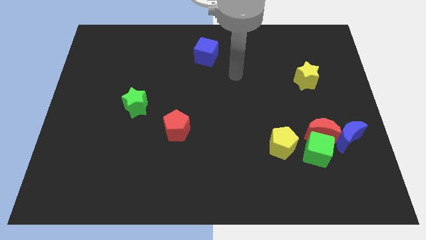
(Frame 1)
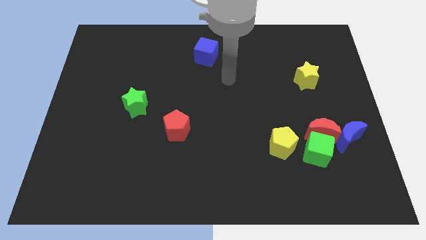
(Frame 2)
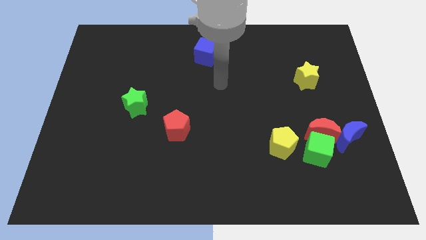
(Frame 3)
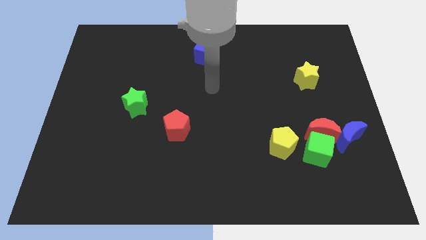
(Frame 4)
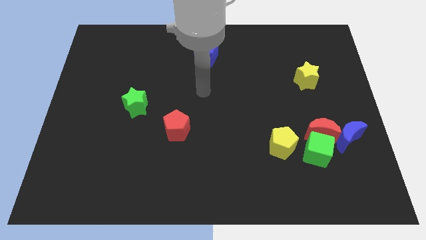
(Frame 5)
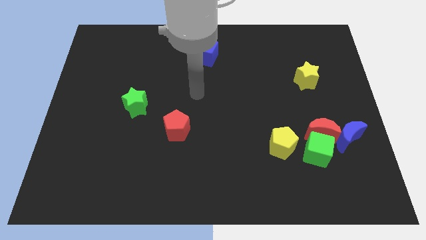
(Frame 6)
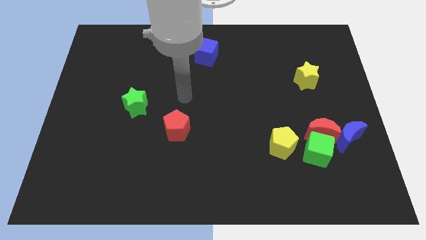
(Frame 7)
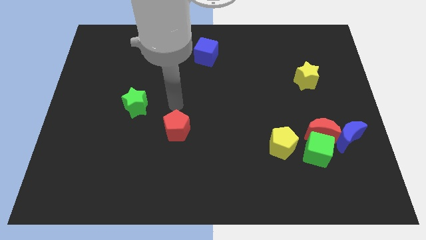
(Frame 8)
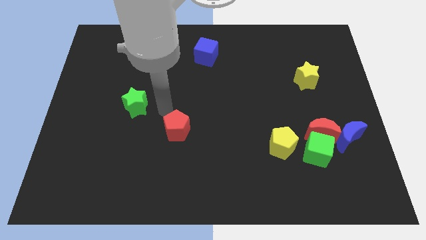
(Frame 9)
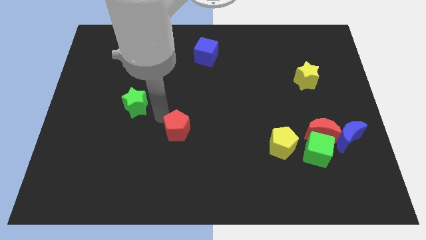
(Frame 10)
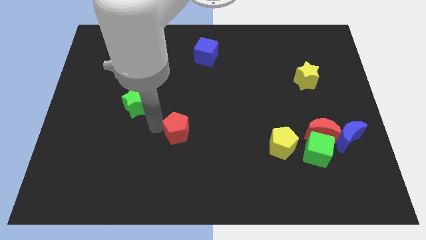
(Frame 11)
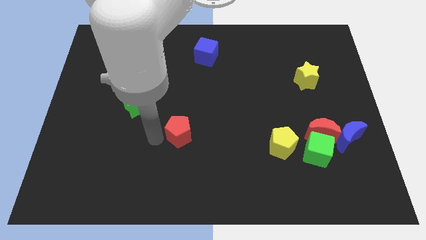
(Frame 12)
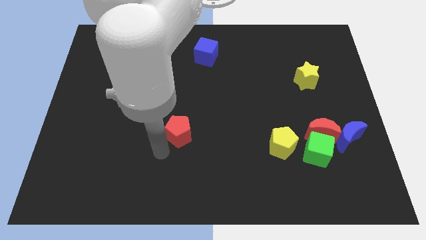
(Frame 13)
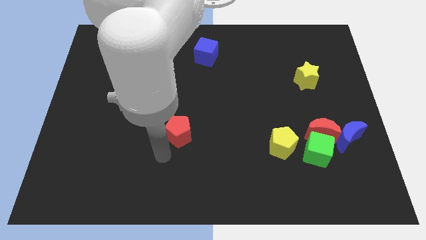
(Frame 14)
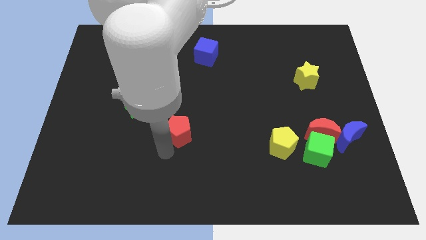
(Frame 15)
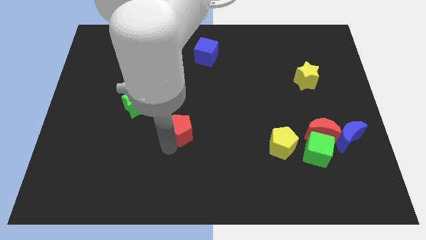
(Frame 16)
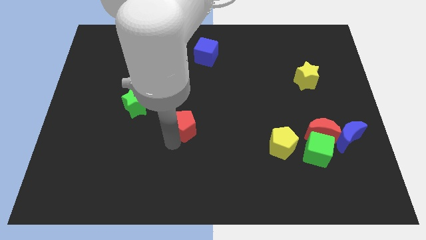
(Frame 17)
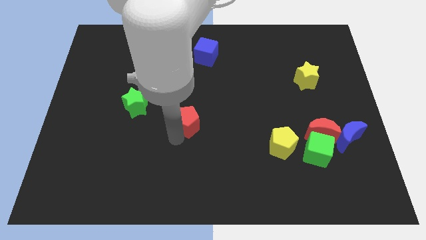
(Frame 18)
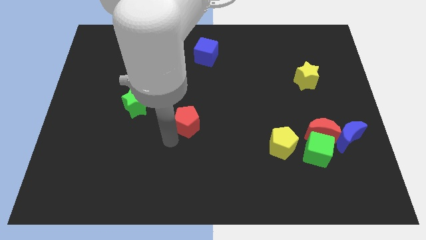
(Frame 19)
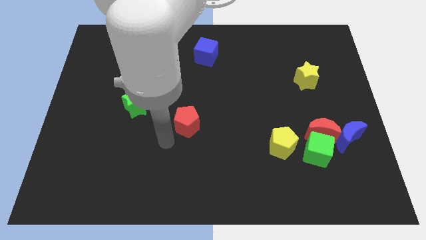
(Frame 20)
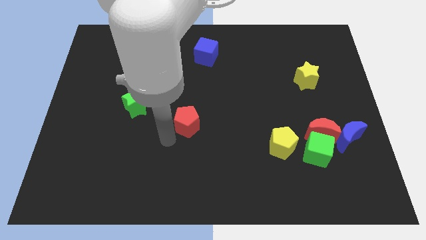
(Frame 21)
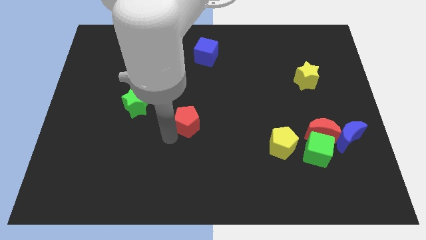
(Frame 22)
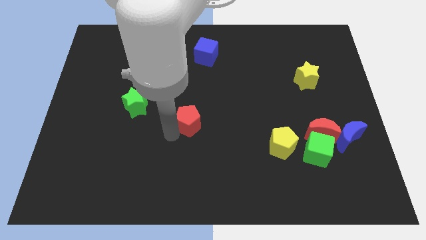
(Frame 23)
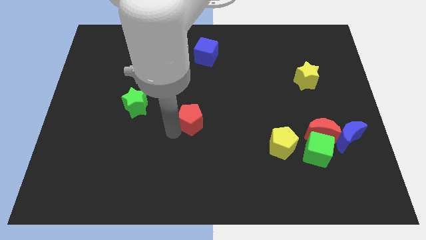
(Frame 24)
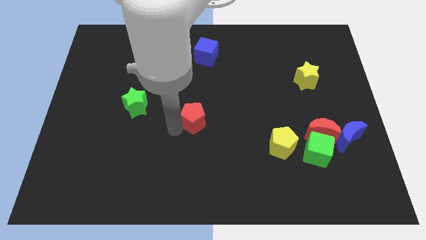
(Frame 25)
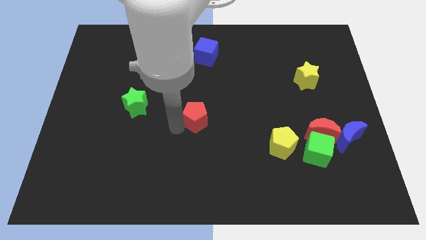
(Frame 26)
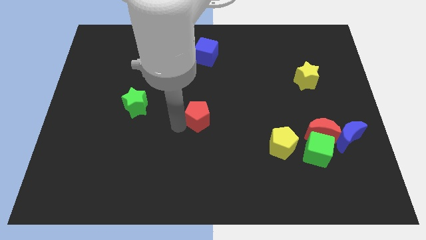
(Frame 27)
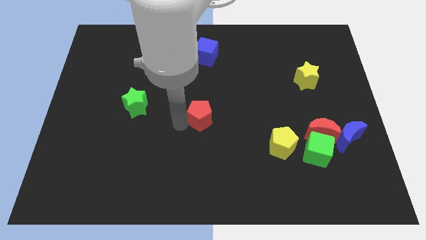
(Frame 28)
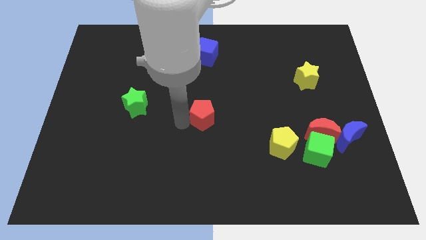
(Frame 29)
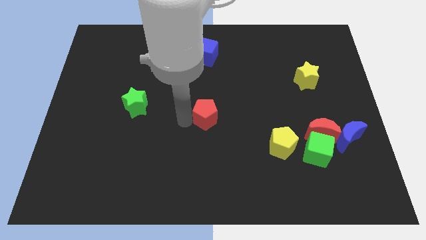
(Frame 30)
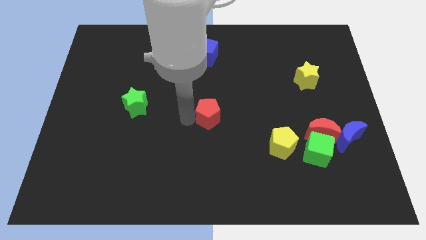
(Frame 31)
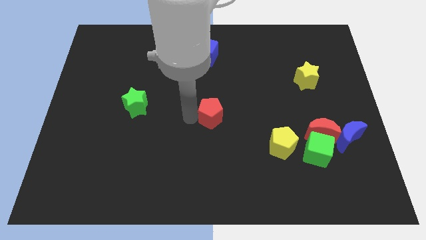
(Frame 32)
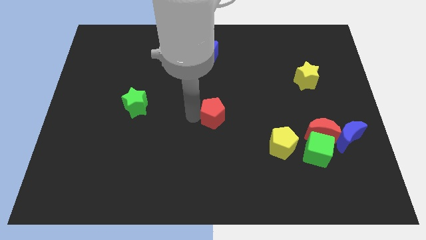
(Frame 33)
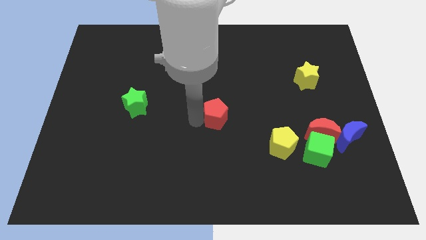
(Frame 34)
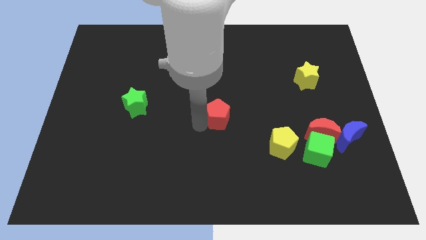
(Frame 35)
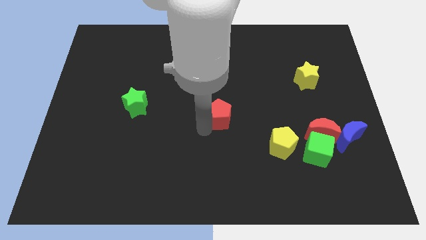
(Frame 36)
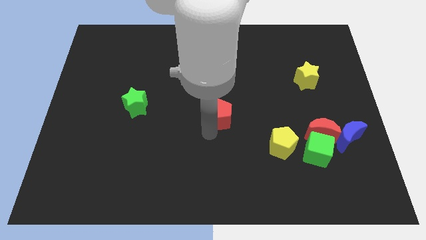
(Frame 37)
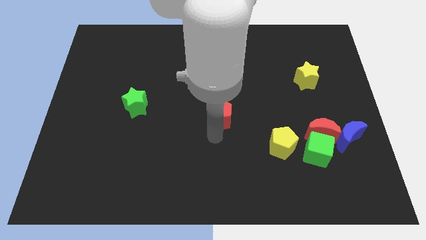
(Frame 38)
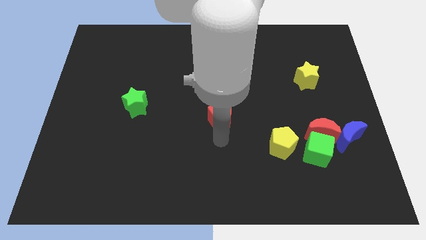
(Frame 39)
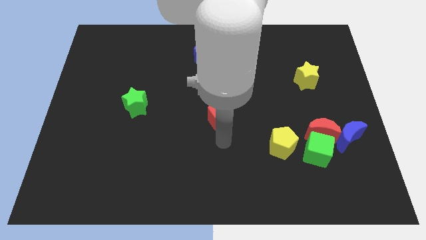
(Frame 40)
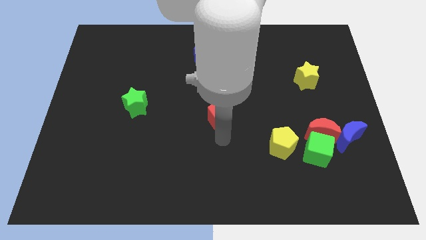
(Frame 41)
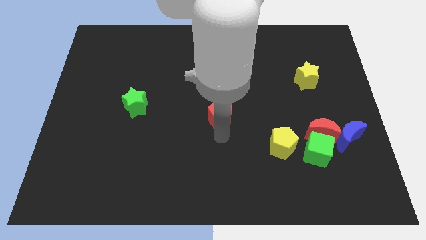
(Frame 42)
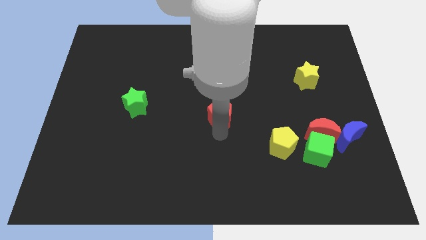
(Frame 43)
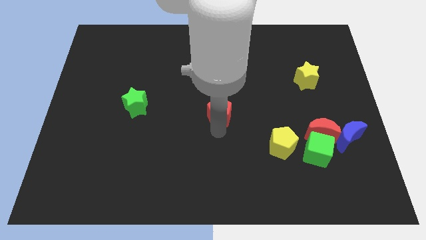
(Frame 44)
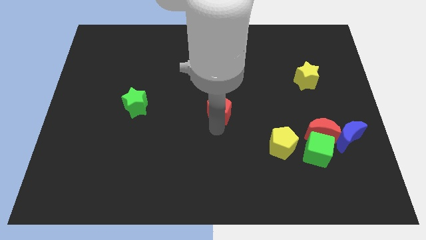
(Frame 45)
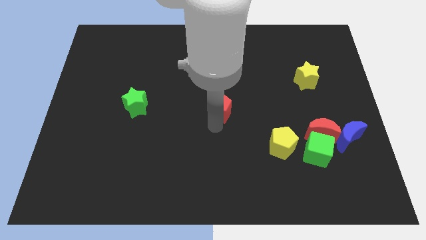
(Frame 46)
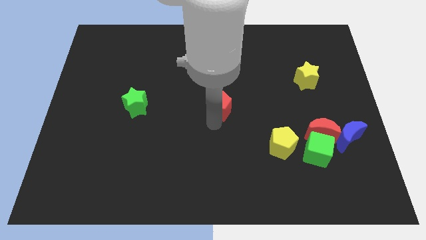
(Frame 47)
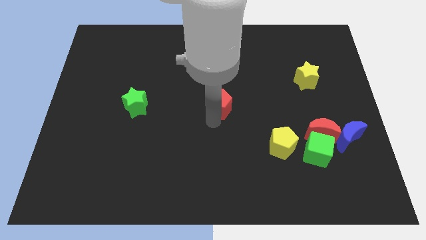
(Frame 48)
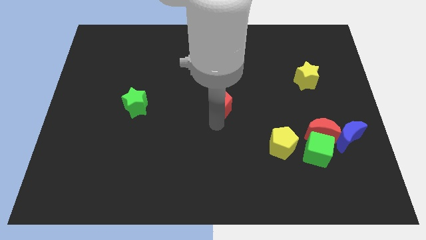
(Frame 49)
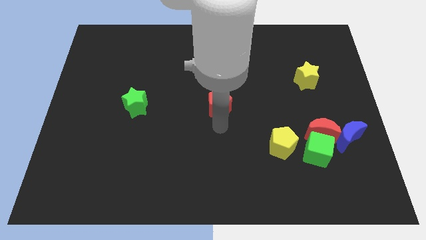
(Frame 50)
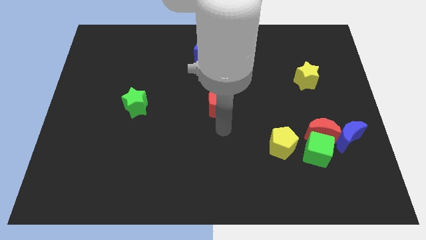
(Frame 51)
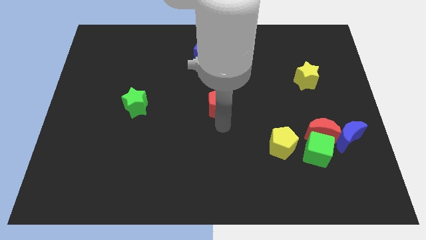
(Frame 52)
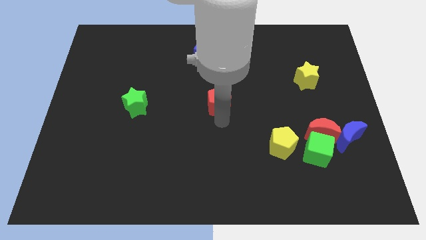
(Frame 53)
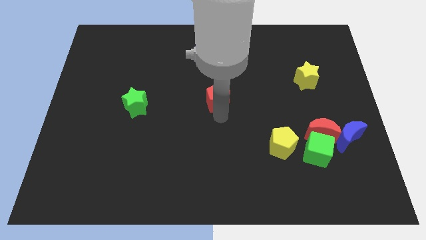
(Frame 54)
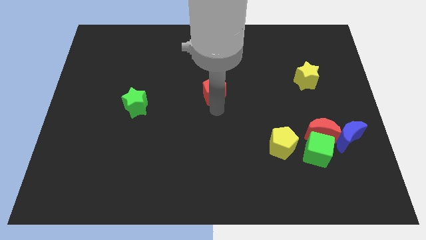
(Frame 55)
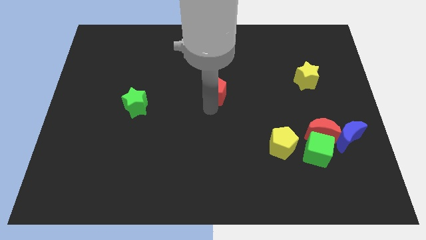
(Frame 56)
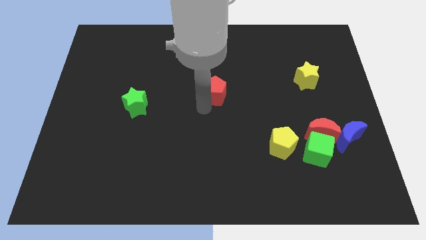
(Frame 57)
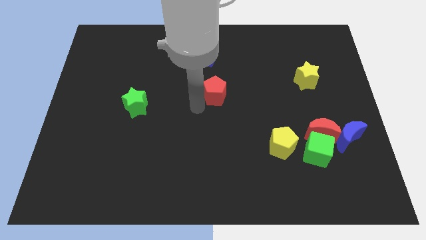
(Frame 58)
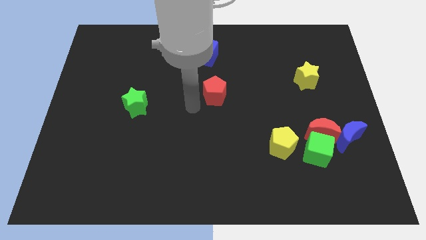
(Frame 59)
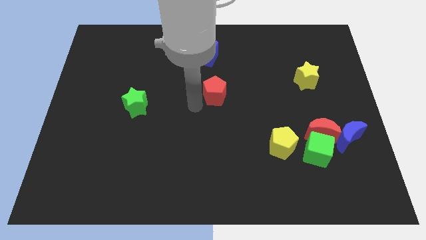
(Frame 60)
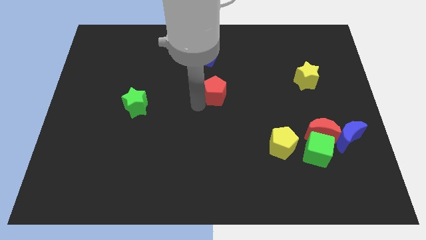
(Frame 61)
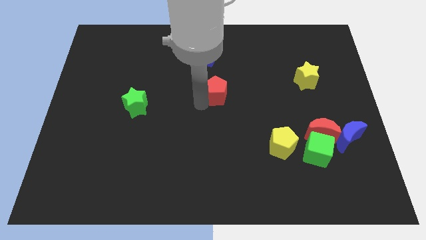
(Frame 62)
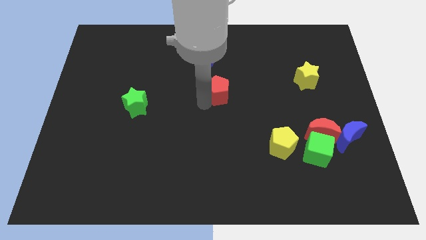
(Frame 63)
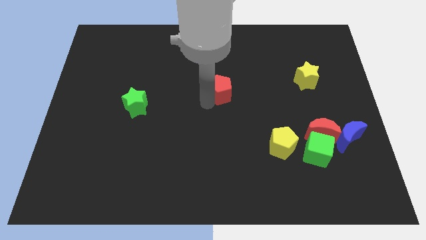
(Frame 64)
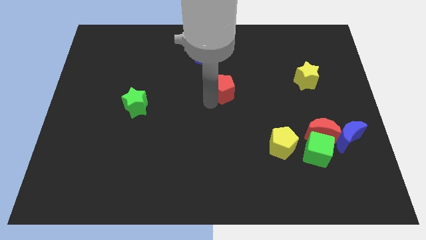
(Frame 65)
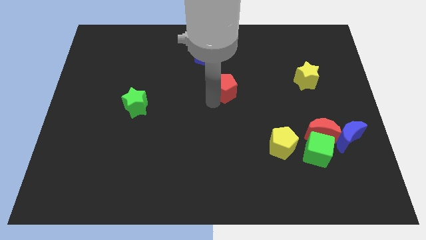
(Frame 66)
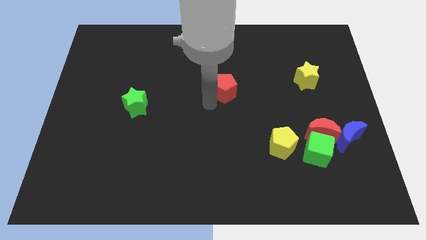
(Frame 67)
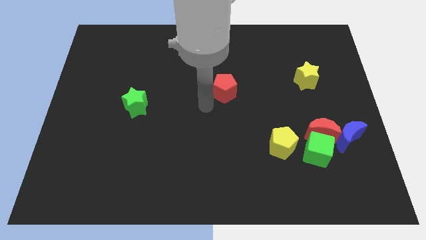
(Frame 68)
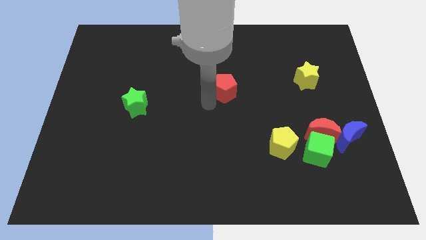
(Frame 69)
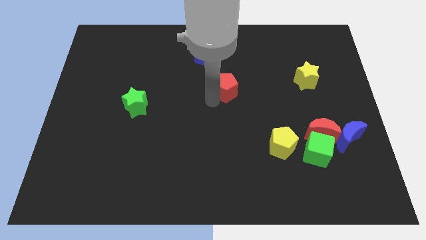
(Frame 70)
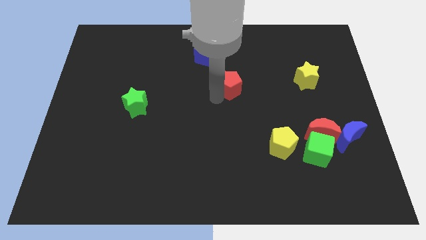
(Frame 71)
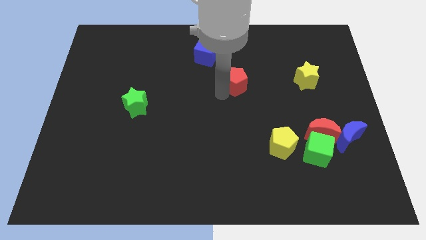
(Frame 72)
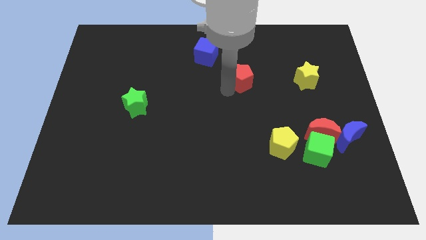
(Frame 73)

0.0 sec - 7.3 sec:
slide the red pentagon up and to the right

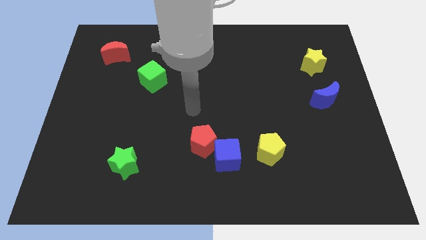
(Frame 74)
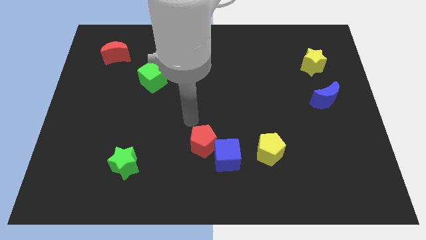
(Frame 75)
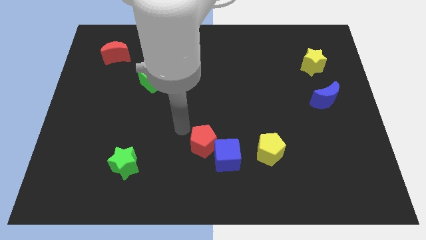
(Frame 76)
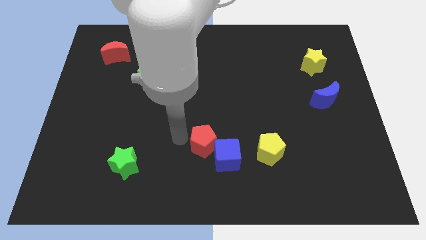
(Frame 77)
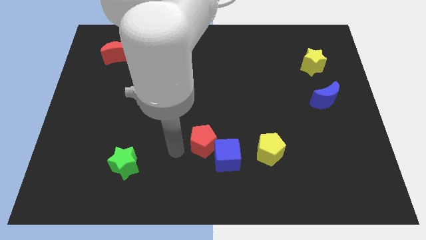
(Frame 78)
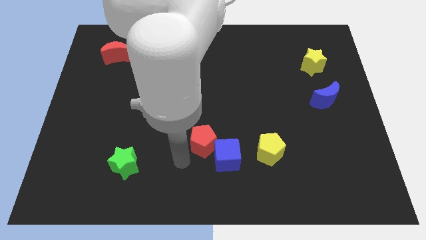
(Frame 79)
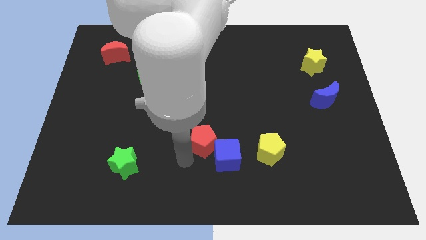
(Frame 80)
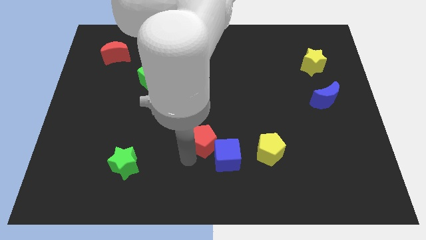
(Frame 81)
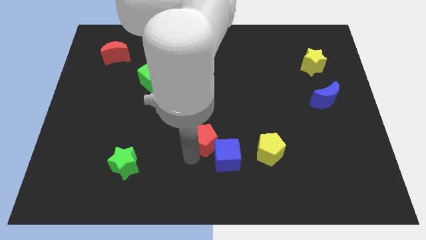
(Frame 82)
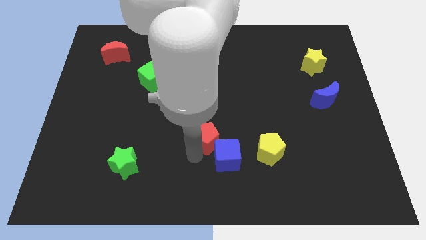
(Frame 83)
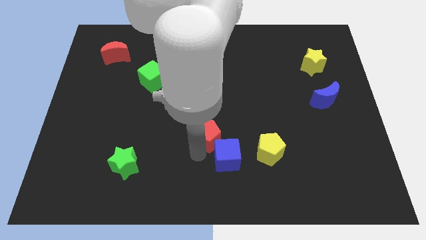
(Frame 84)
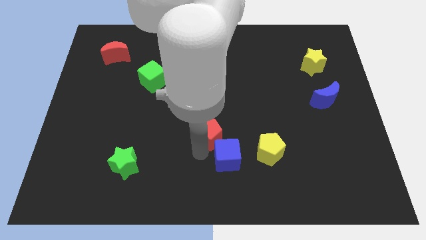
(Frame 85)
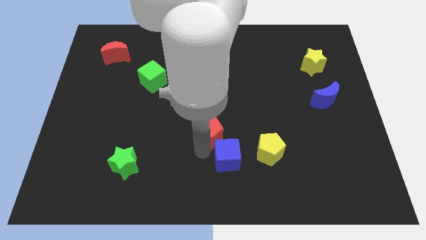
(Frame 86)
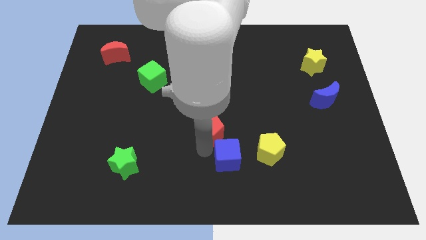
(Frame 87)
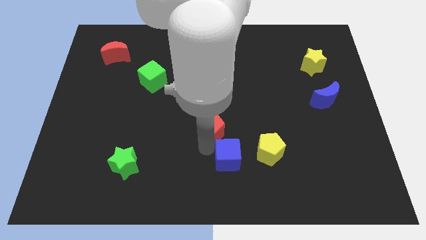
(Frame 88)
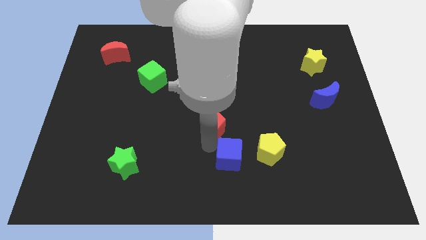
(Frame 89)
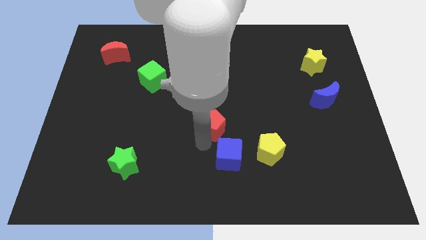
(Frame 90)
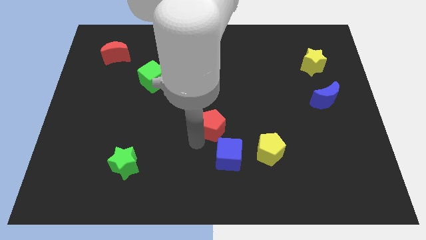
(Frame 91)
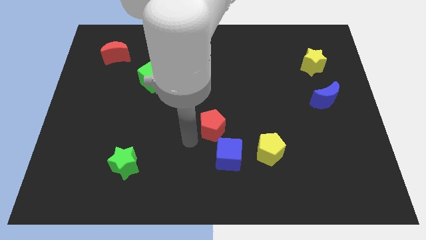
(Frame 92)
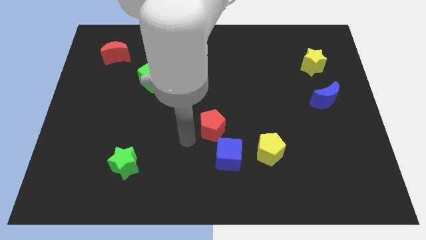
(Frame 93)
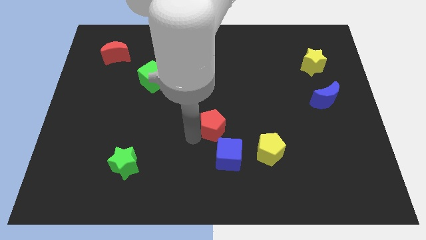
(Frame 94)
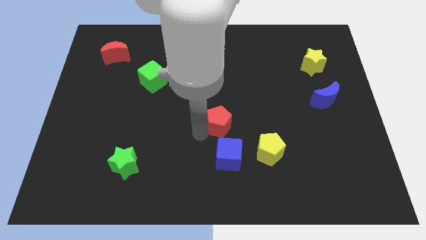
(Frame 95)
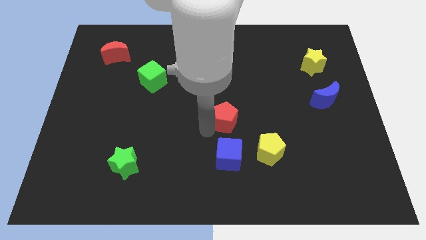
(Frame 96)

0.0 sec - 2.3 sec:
move the red pentagon a bit up and then right
